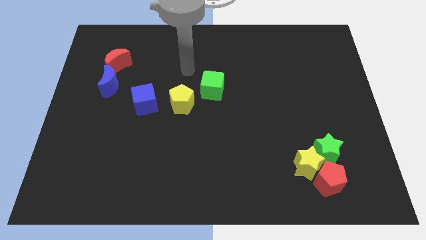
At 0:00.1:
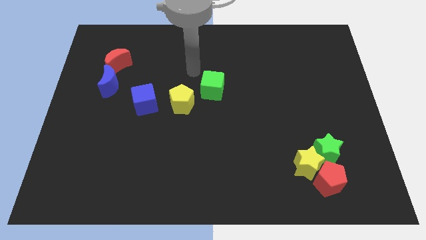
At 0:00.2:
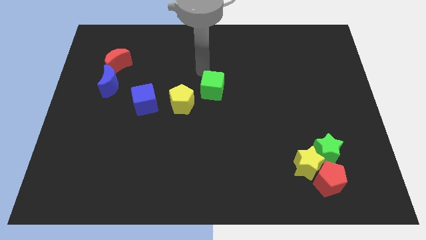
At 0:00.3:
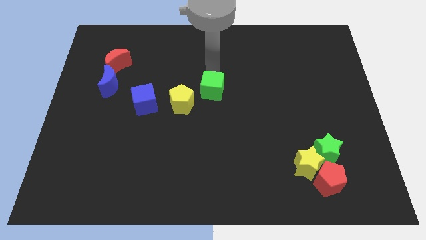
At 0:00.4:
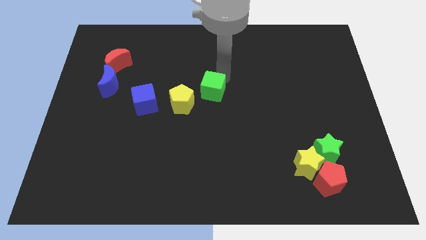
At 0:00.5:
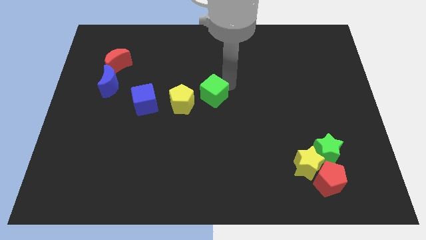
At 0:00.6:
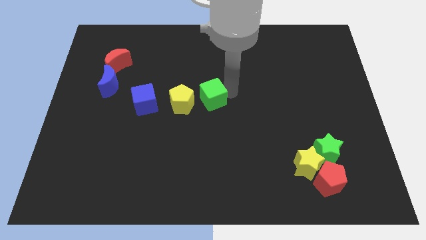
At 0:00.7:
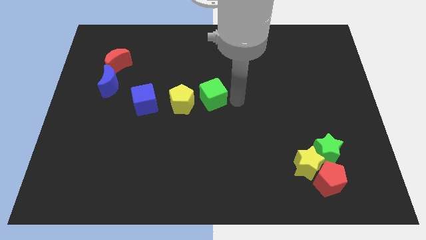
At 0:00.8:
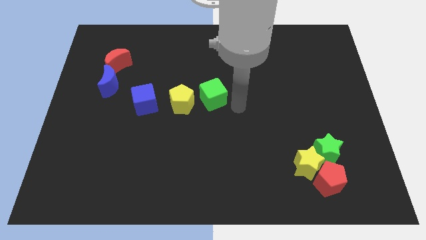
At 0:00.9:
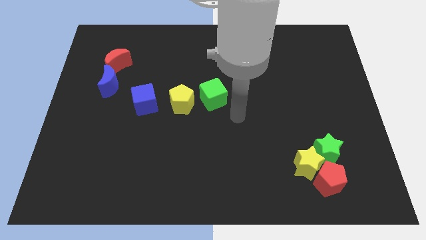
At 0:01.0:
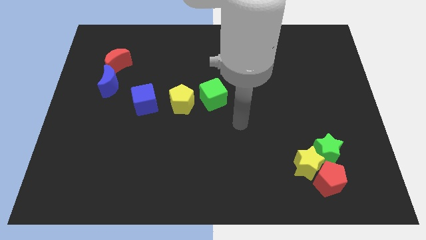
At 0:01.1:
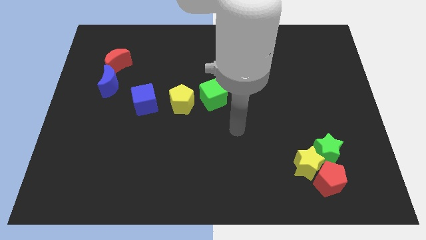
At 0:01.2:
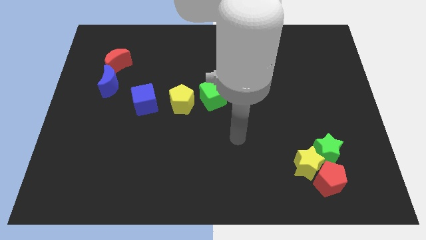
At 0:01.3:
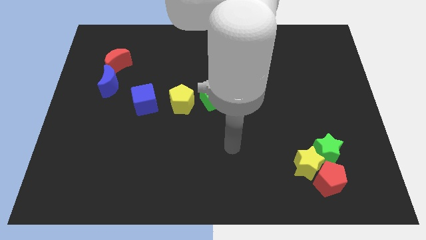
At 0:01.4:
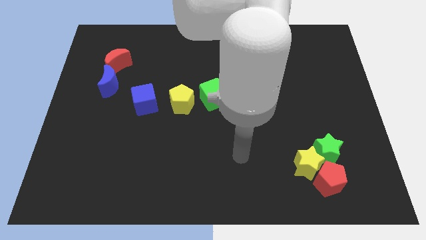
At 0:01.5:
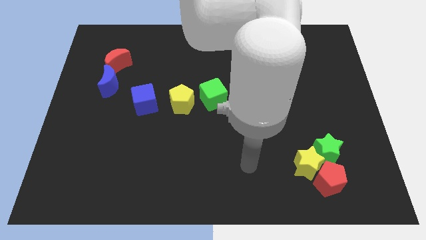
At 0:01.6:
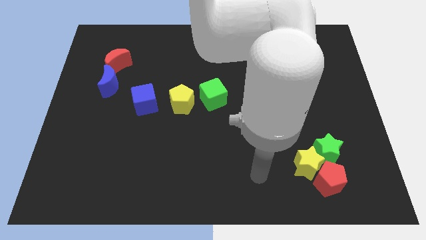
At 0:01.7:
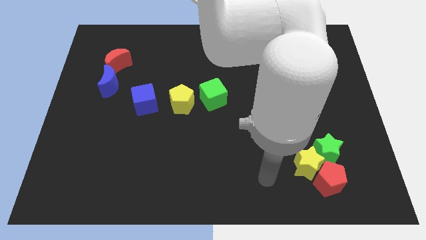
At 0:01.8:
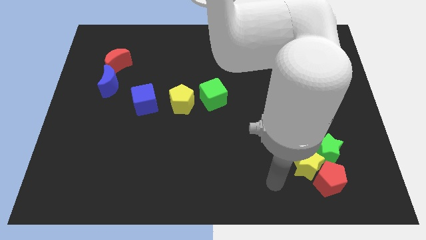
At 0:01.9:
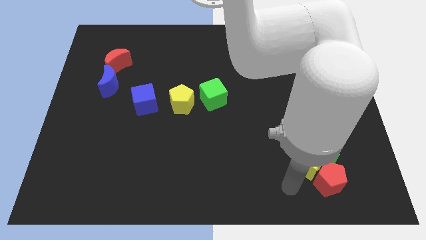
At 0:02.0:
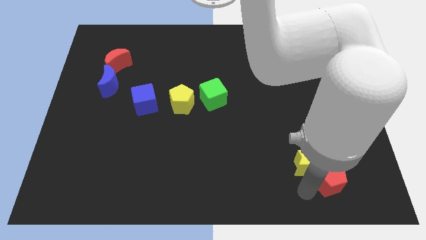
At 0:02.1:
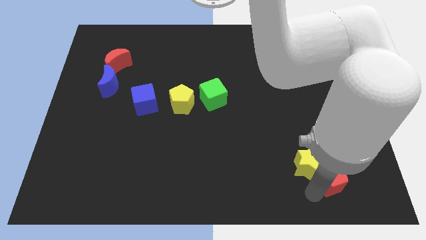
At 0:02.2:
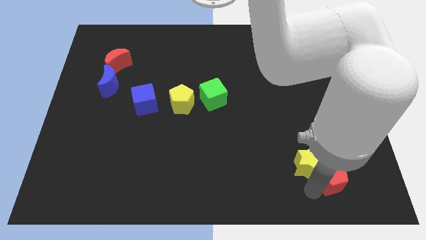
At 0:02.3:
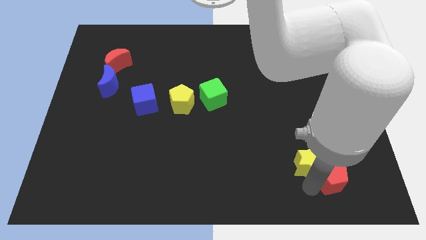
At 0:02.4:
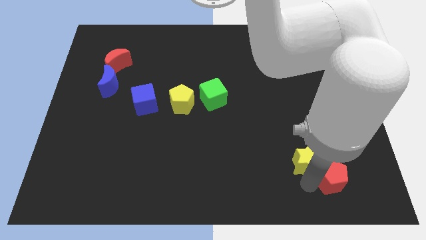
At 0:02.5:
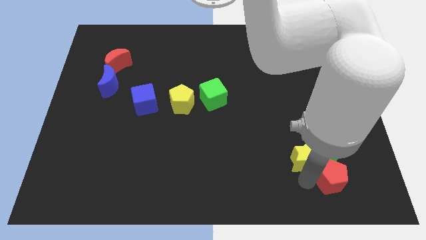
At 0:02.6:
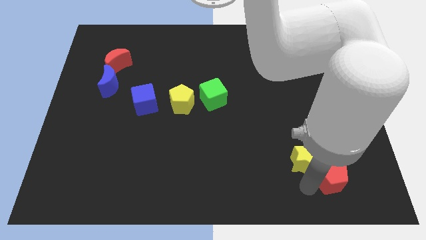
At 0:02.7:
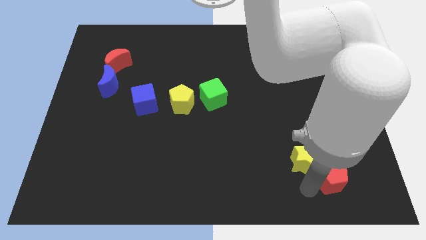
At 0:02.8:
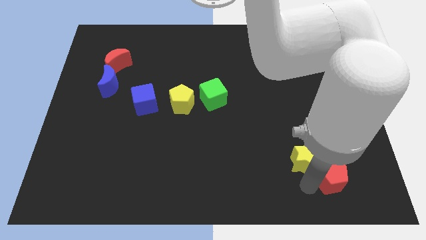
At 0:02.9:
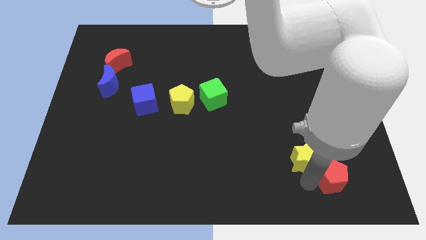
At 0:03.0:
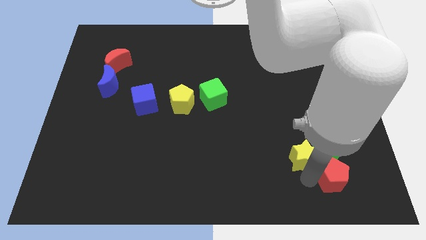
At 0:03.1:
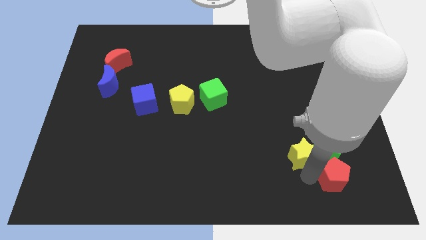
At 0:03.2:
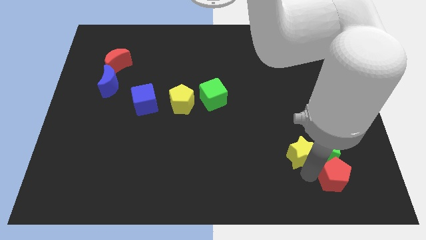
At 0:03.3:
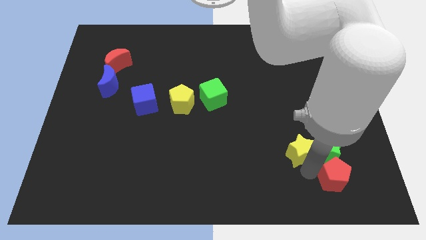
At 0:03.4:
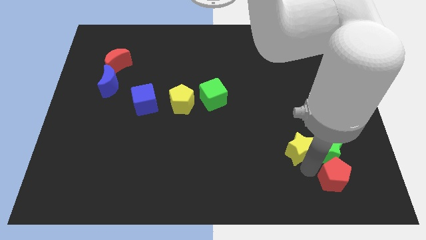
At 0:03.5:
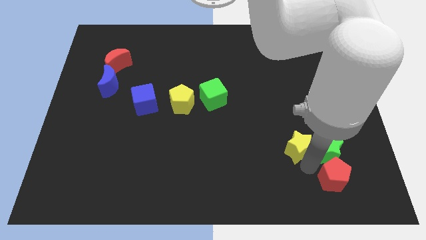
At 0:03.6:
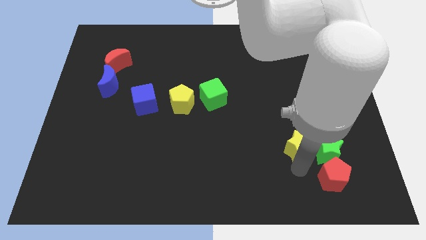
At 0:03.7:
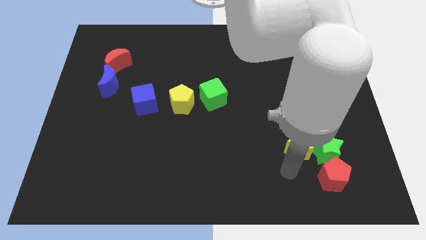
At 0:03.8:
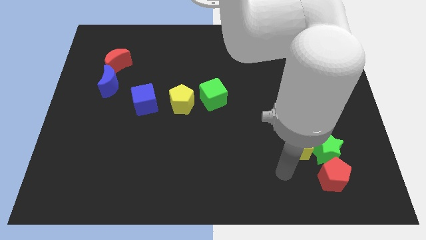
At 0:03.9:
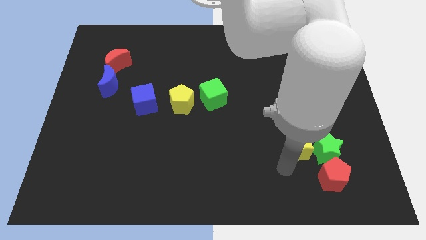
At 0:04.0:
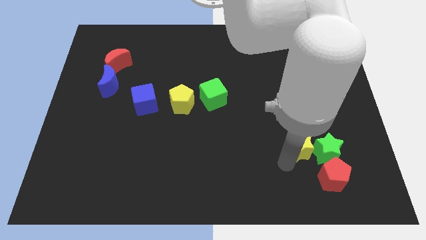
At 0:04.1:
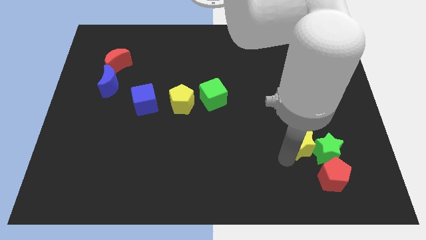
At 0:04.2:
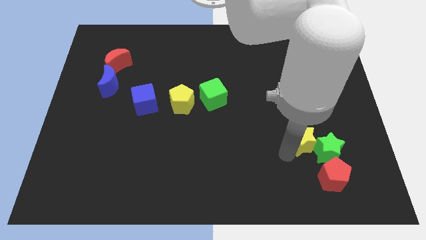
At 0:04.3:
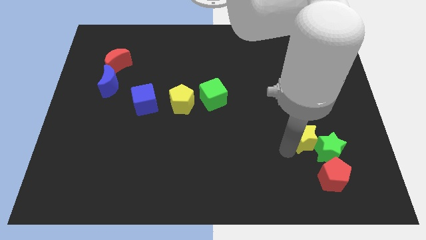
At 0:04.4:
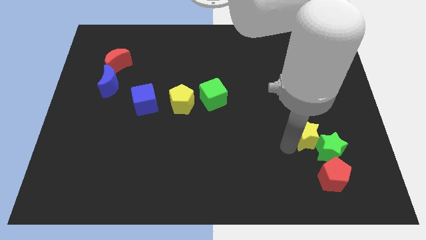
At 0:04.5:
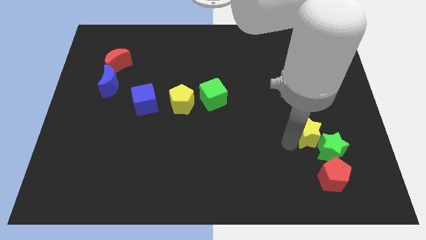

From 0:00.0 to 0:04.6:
move the yellow star to the top side of the green star

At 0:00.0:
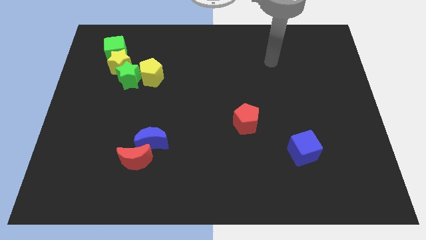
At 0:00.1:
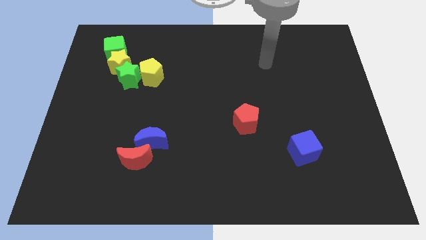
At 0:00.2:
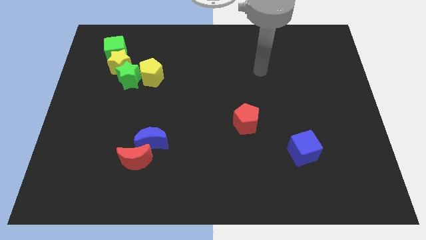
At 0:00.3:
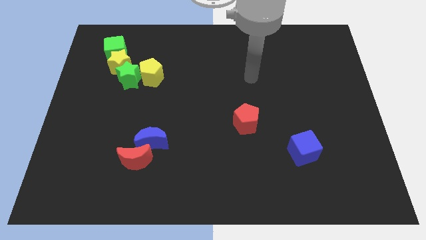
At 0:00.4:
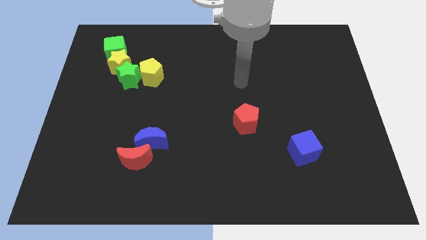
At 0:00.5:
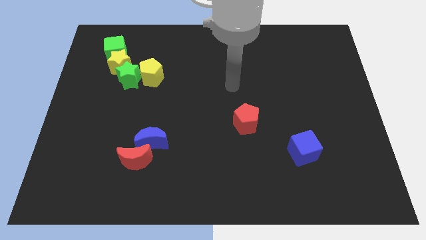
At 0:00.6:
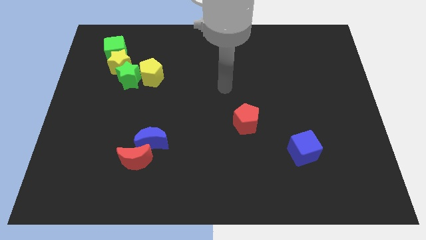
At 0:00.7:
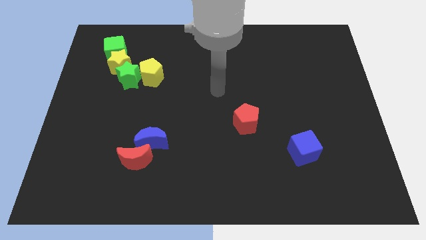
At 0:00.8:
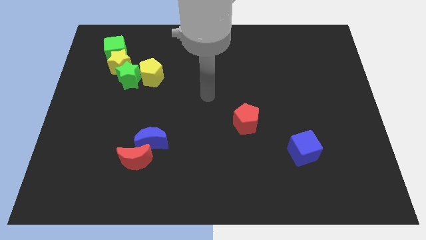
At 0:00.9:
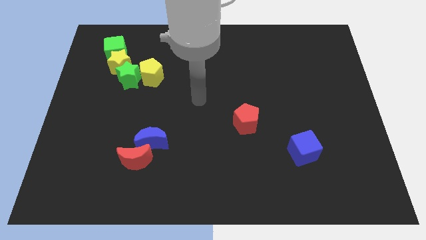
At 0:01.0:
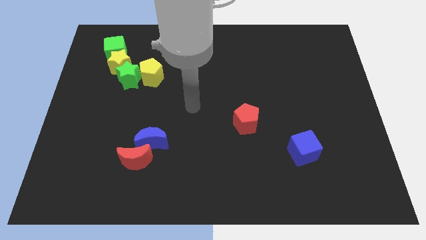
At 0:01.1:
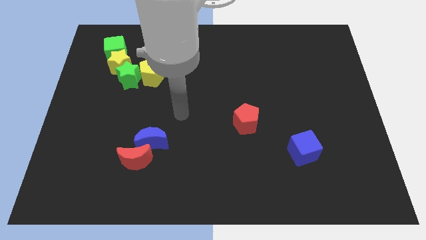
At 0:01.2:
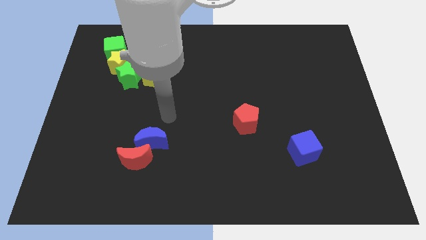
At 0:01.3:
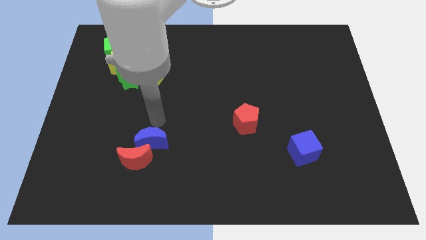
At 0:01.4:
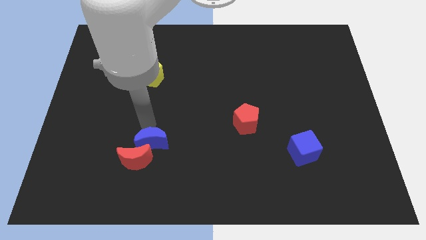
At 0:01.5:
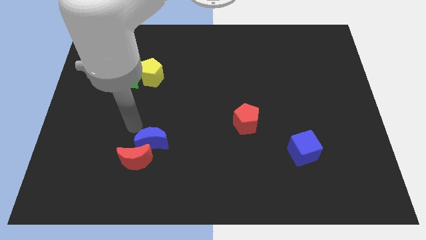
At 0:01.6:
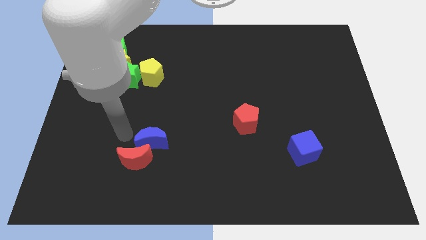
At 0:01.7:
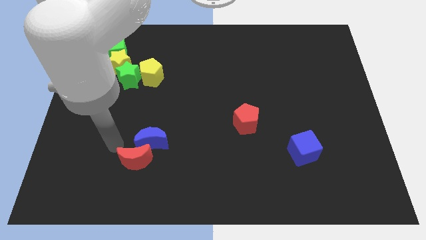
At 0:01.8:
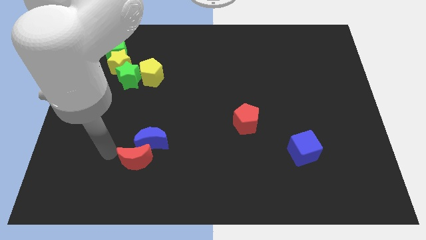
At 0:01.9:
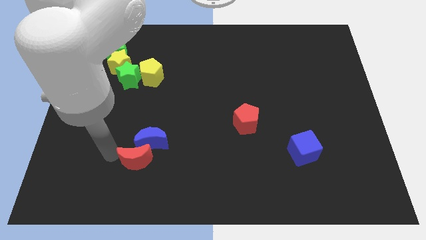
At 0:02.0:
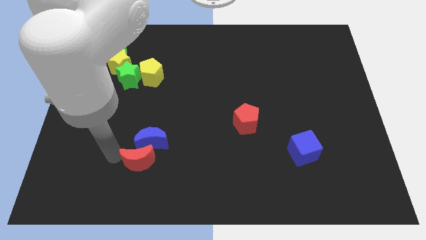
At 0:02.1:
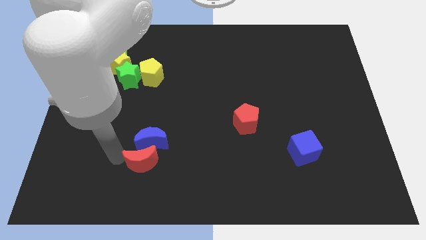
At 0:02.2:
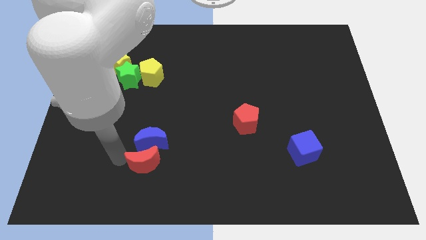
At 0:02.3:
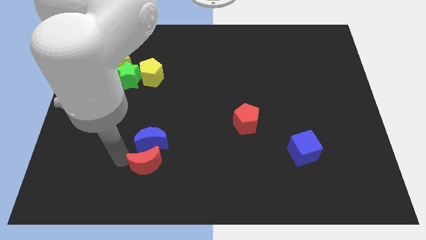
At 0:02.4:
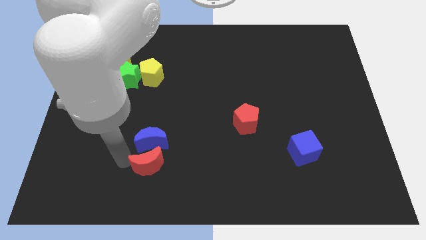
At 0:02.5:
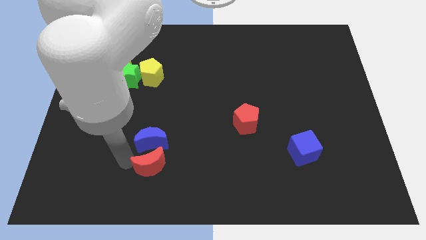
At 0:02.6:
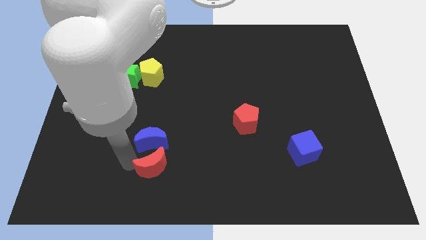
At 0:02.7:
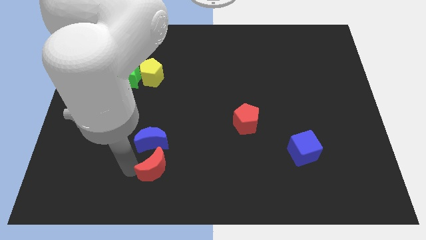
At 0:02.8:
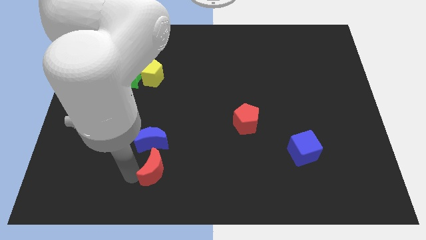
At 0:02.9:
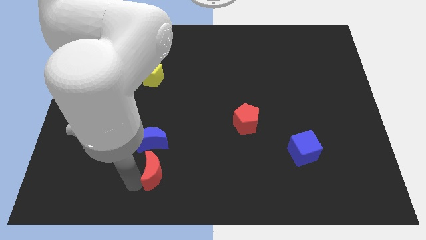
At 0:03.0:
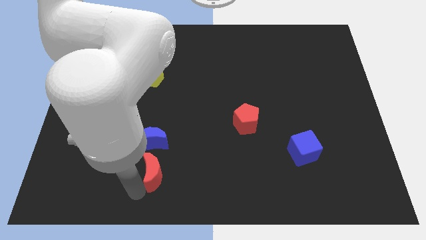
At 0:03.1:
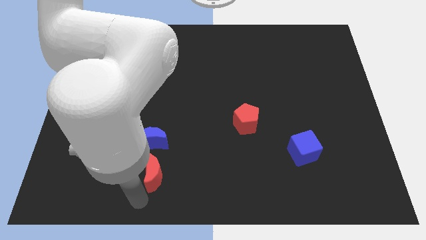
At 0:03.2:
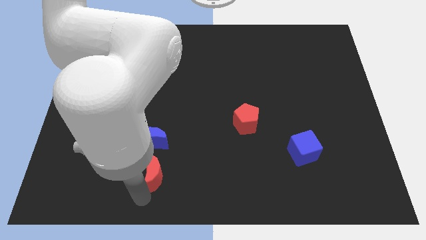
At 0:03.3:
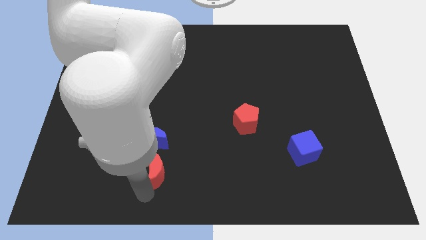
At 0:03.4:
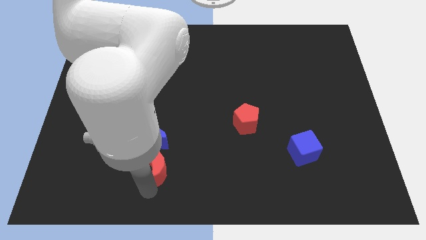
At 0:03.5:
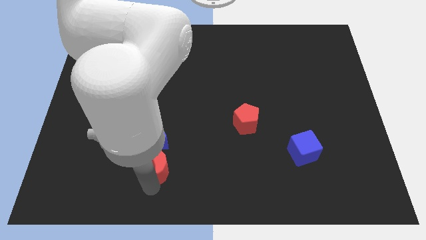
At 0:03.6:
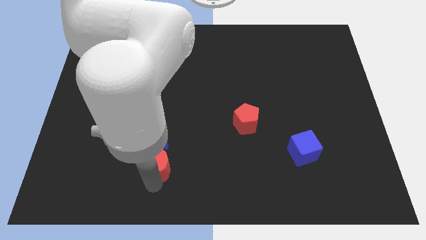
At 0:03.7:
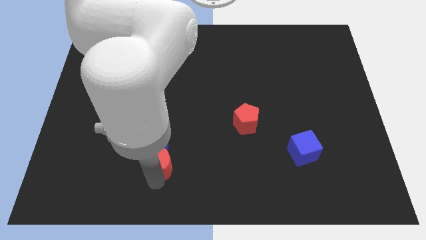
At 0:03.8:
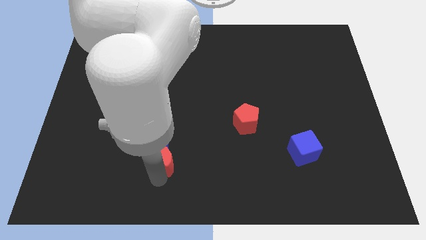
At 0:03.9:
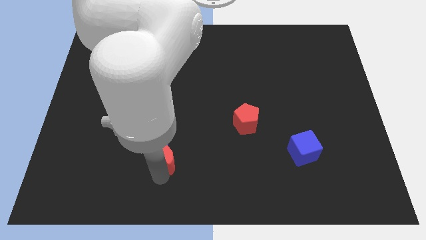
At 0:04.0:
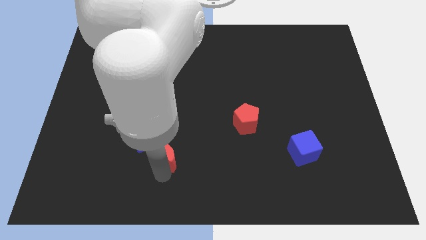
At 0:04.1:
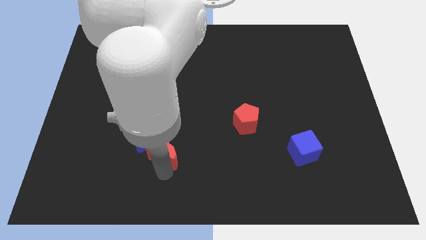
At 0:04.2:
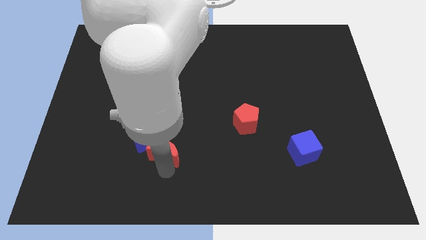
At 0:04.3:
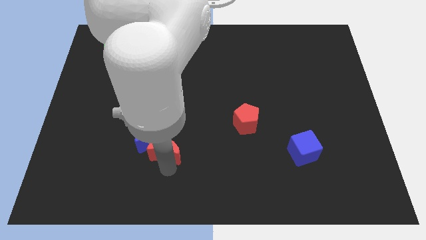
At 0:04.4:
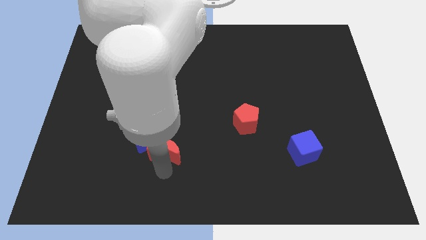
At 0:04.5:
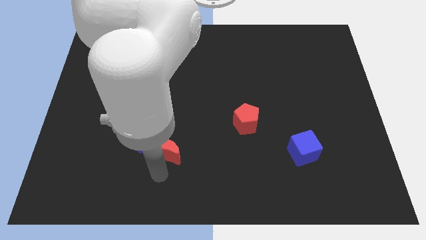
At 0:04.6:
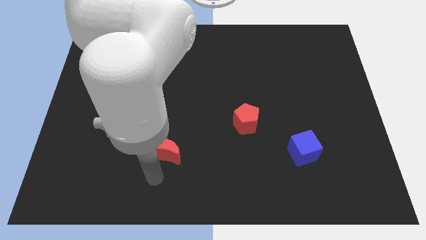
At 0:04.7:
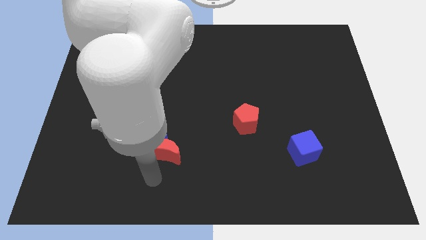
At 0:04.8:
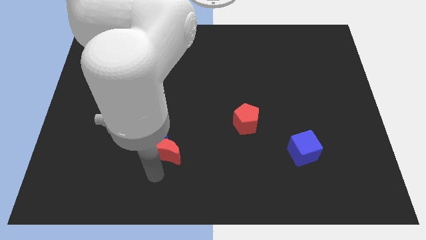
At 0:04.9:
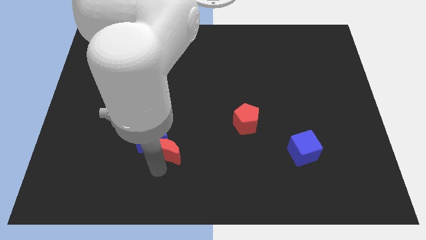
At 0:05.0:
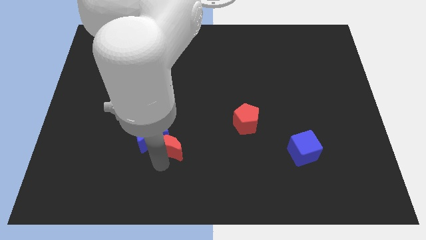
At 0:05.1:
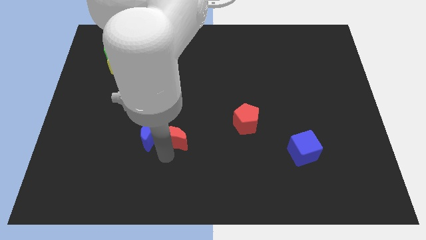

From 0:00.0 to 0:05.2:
slide the red moon to the top right side of the blue moon
